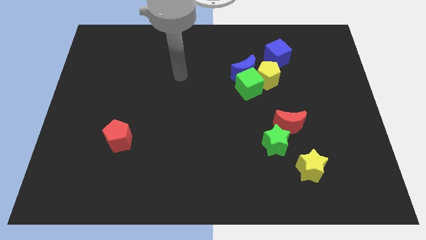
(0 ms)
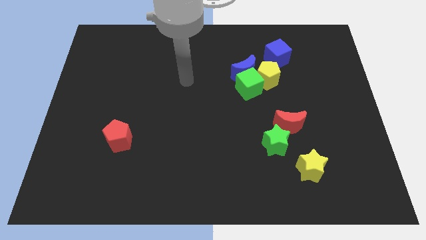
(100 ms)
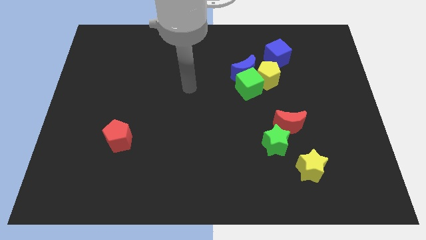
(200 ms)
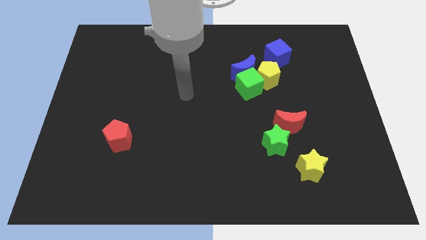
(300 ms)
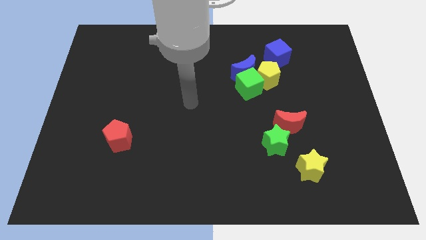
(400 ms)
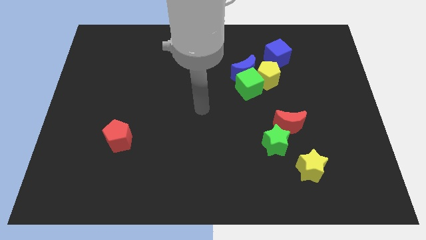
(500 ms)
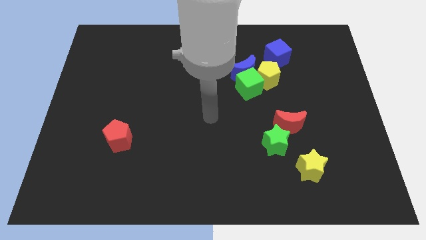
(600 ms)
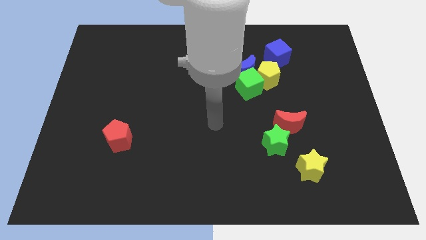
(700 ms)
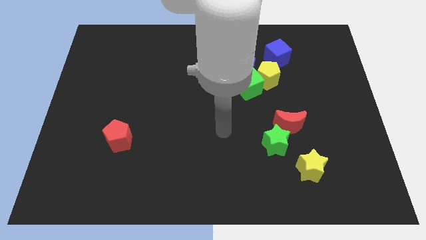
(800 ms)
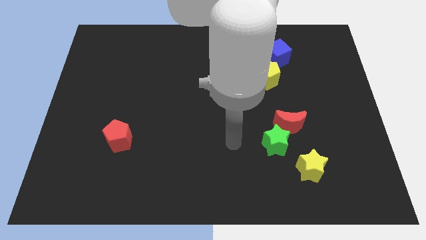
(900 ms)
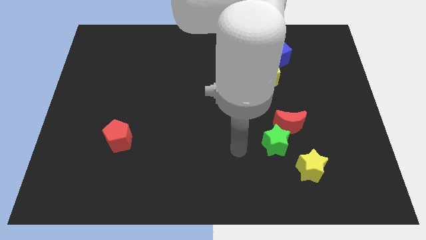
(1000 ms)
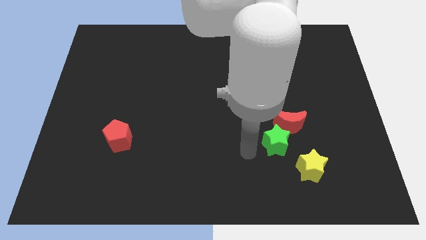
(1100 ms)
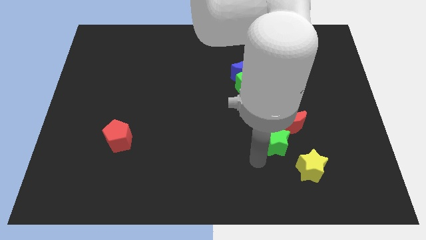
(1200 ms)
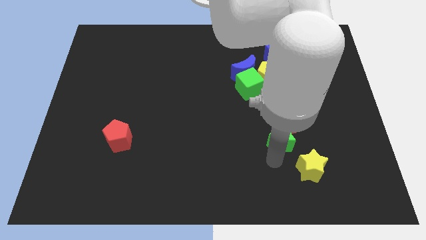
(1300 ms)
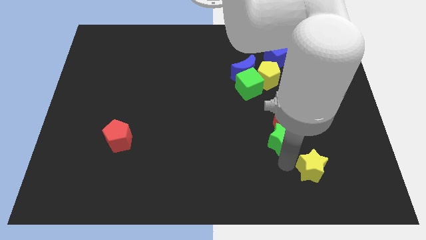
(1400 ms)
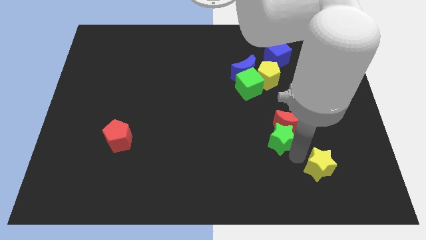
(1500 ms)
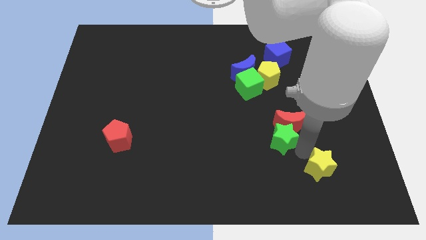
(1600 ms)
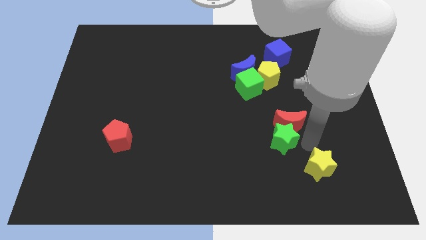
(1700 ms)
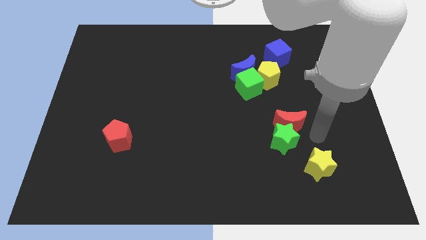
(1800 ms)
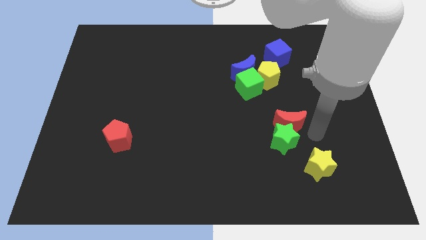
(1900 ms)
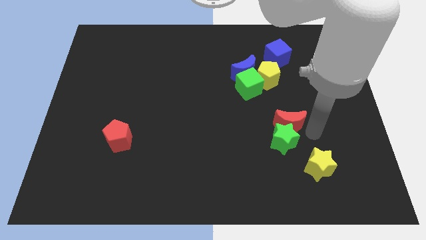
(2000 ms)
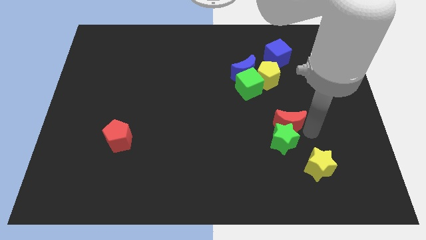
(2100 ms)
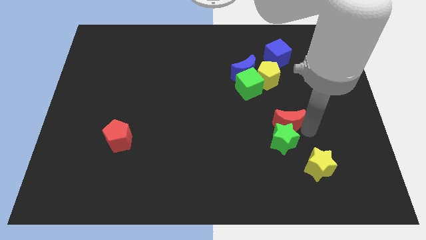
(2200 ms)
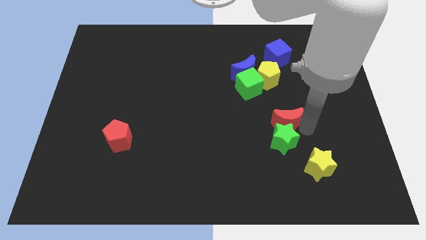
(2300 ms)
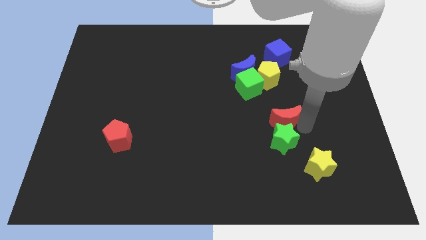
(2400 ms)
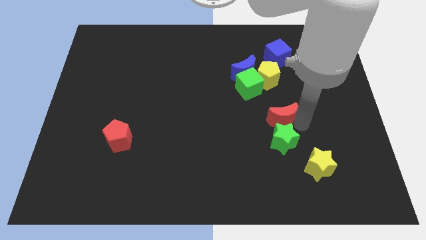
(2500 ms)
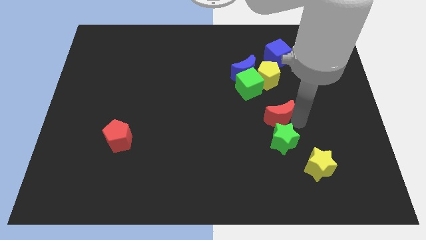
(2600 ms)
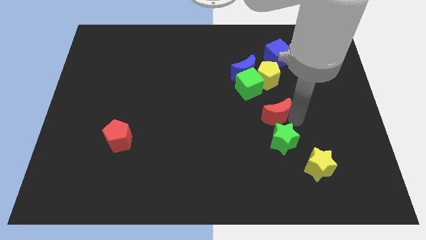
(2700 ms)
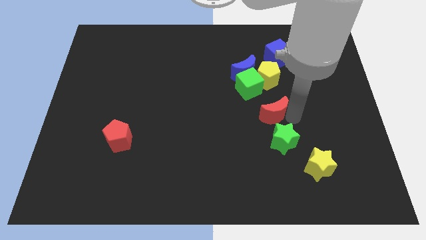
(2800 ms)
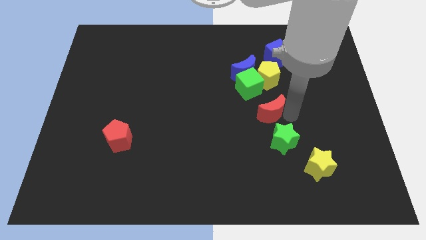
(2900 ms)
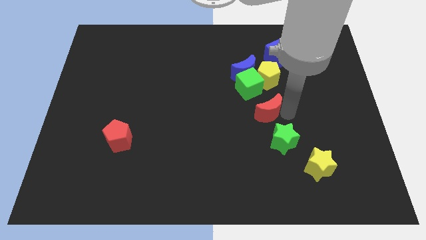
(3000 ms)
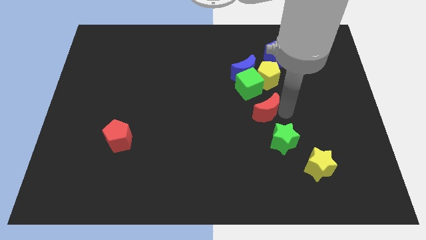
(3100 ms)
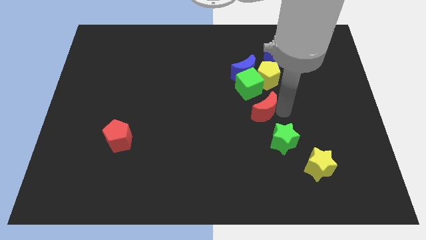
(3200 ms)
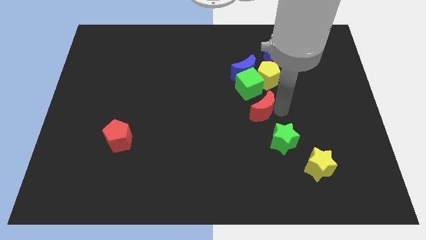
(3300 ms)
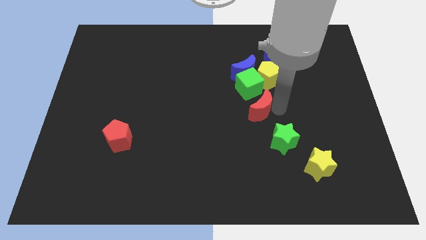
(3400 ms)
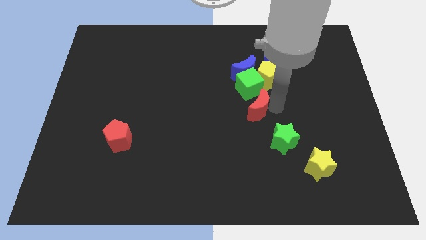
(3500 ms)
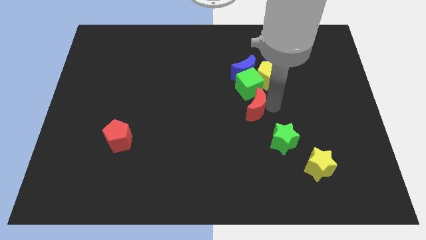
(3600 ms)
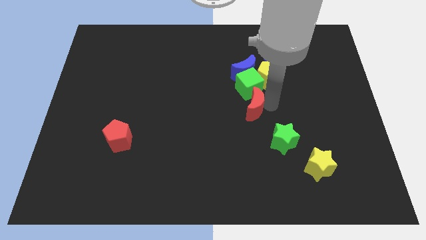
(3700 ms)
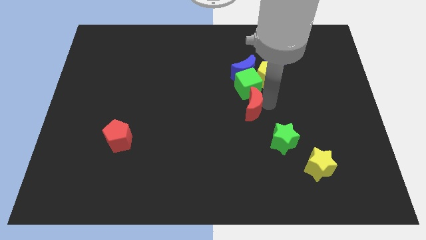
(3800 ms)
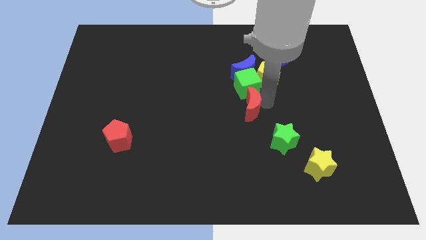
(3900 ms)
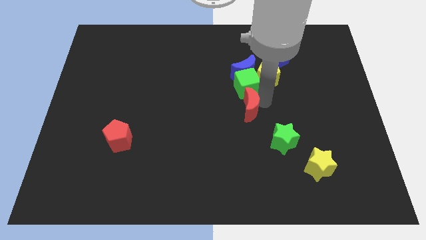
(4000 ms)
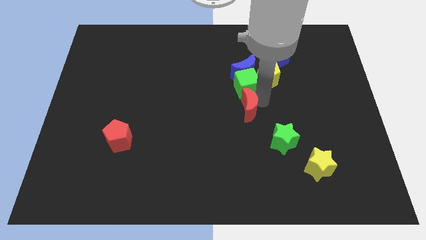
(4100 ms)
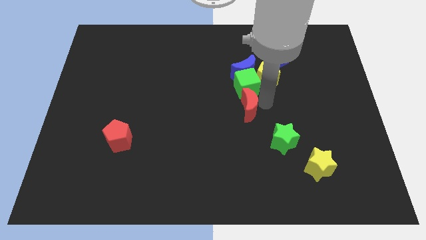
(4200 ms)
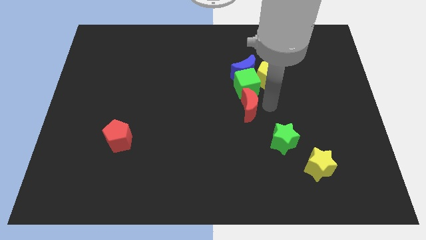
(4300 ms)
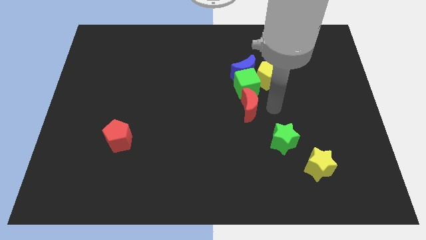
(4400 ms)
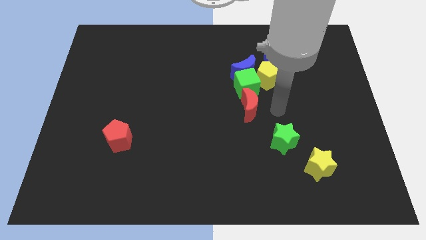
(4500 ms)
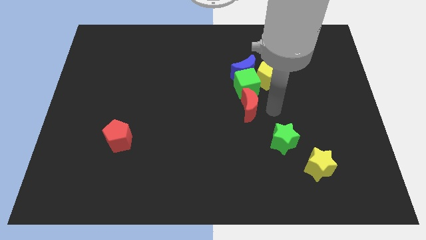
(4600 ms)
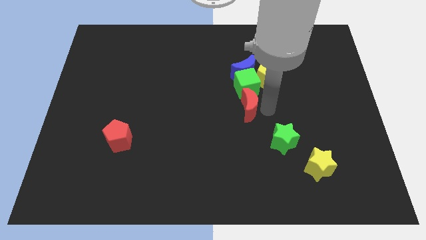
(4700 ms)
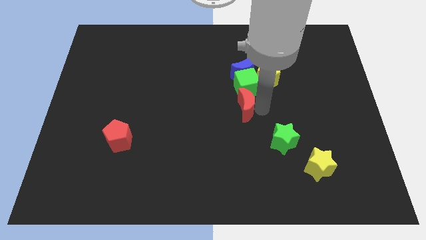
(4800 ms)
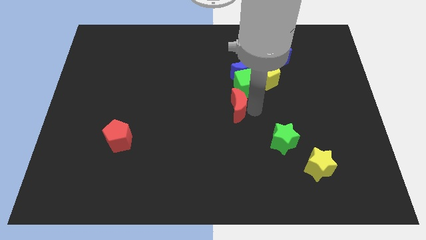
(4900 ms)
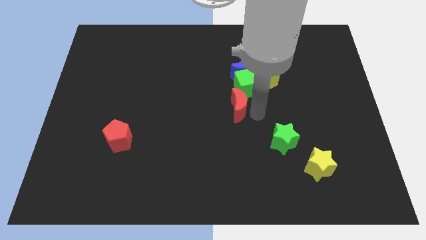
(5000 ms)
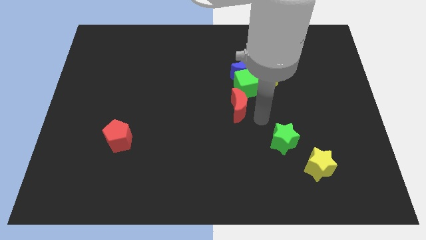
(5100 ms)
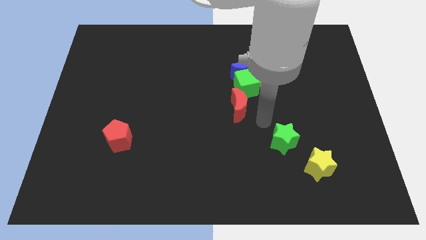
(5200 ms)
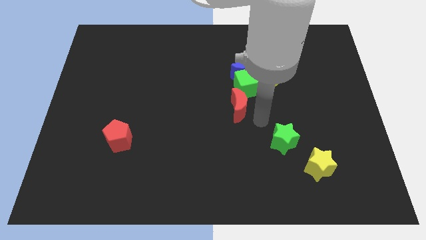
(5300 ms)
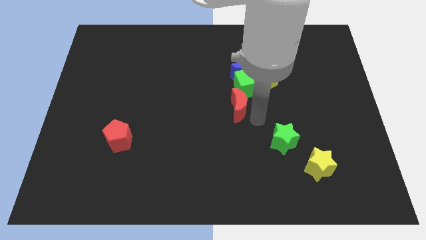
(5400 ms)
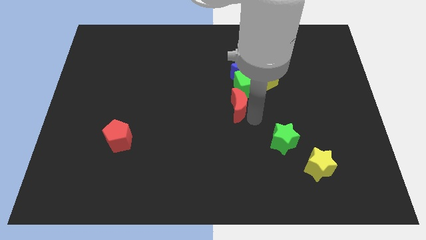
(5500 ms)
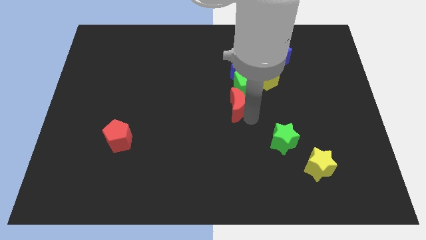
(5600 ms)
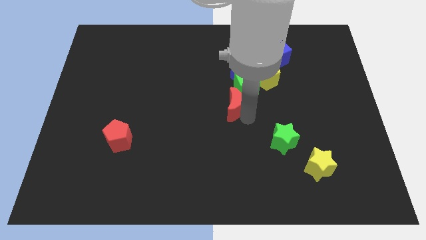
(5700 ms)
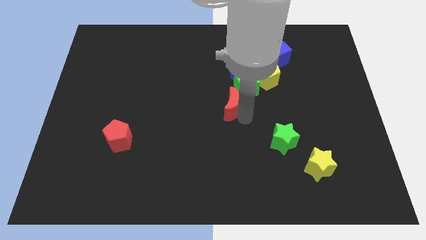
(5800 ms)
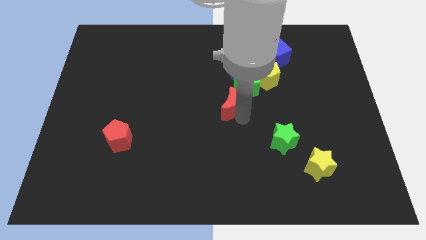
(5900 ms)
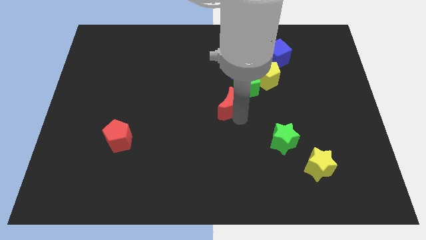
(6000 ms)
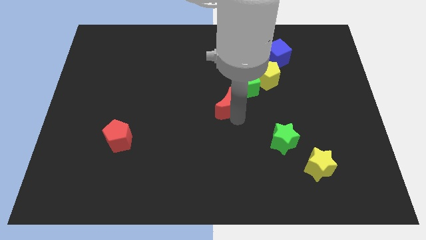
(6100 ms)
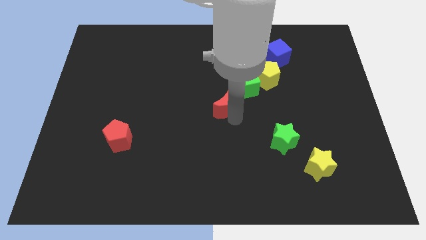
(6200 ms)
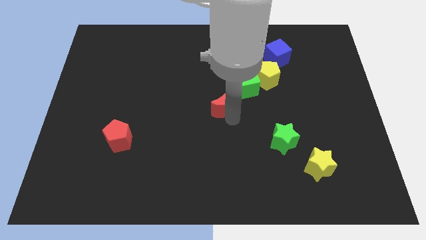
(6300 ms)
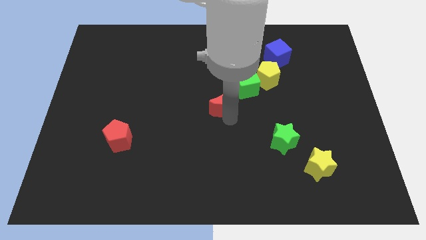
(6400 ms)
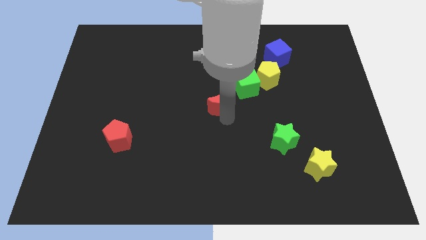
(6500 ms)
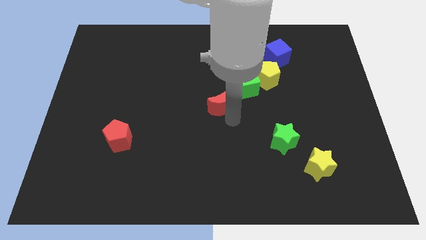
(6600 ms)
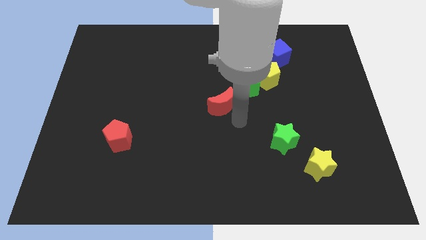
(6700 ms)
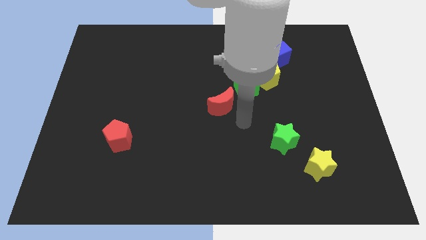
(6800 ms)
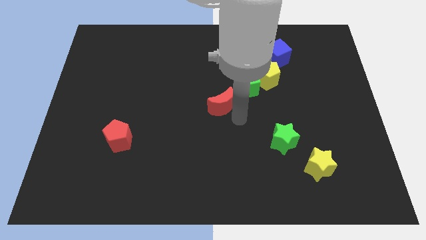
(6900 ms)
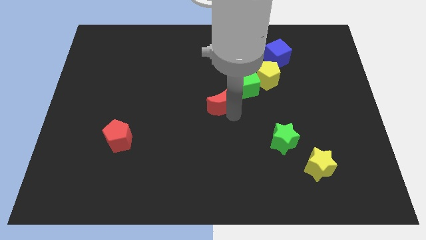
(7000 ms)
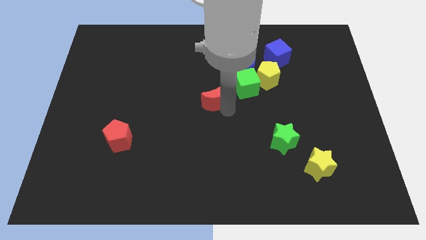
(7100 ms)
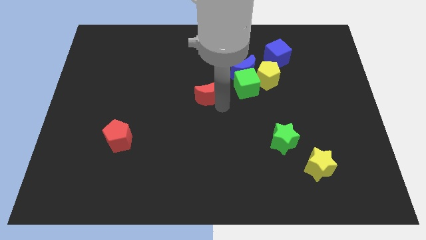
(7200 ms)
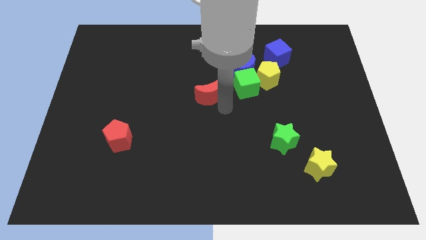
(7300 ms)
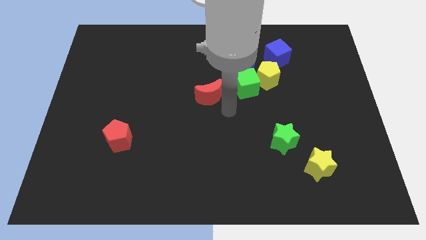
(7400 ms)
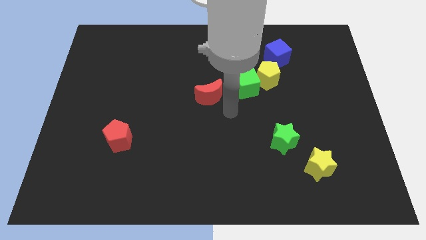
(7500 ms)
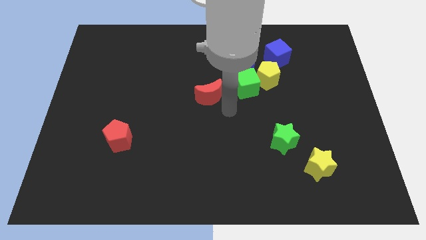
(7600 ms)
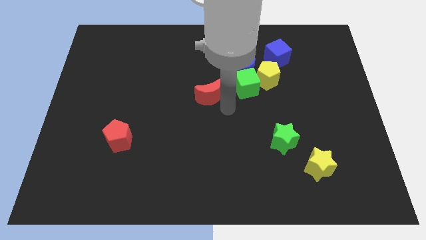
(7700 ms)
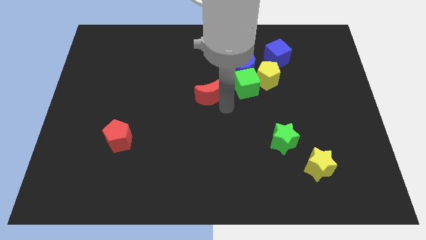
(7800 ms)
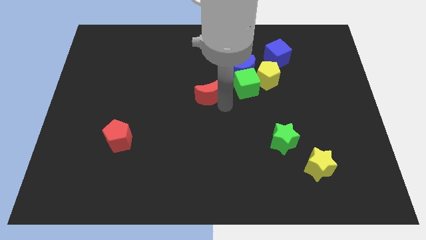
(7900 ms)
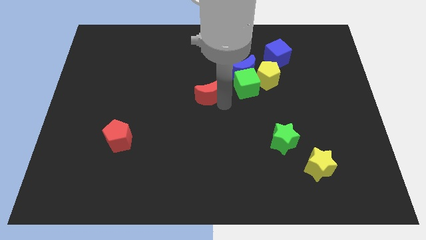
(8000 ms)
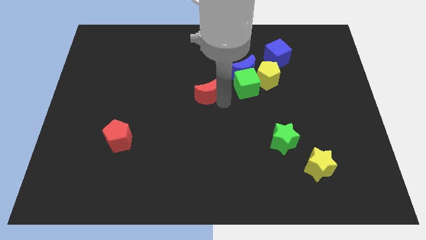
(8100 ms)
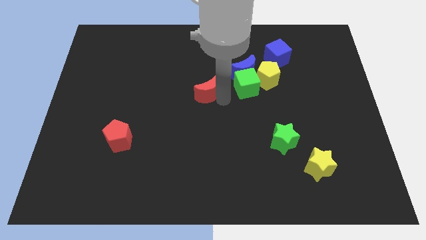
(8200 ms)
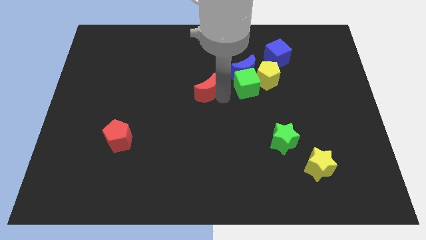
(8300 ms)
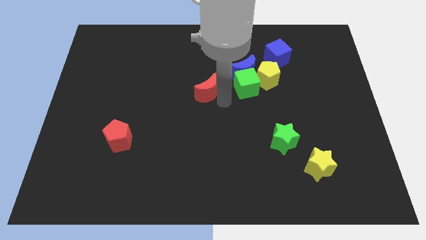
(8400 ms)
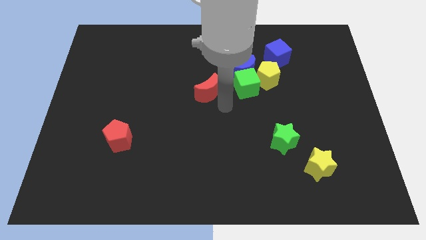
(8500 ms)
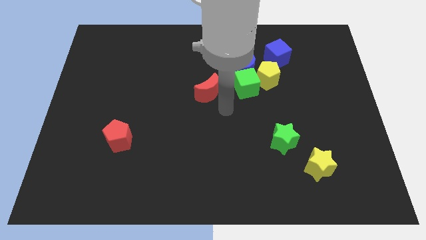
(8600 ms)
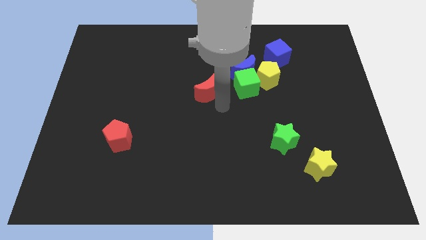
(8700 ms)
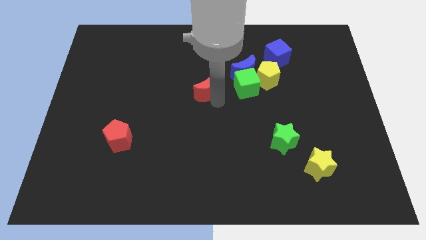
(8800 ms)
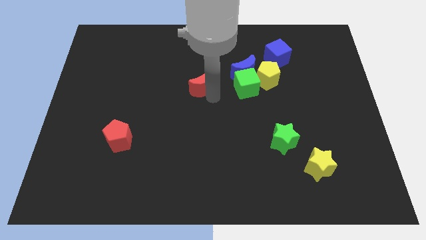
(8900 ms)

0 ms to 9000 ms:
slide the red moon up and left
